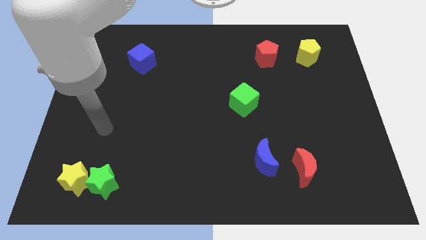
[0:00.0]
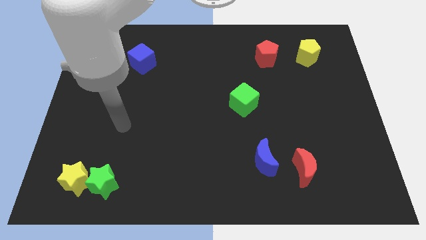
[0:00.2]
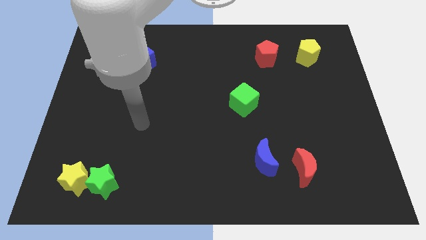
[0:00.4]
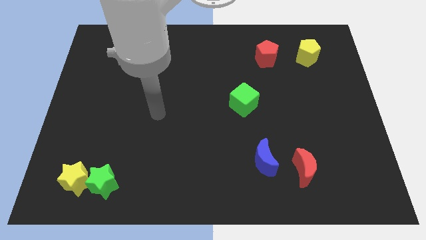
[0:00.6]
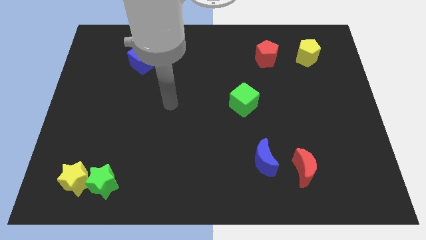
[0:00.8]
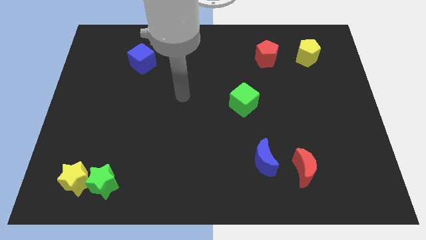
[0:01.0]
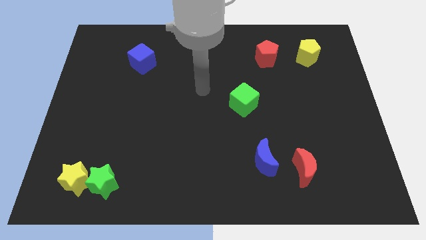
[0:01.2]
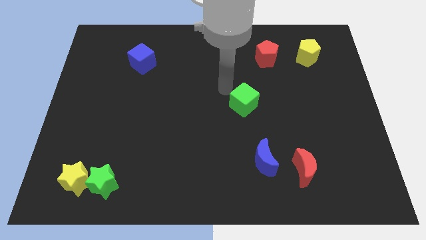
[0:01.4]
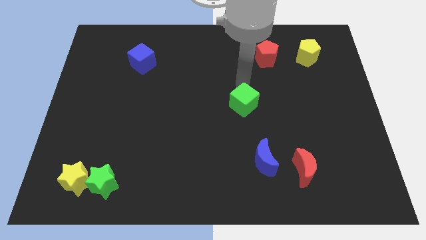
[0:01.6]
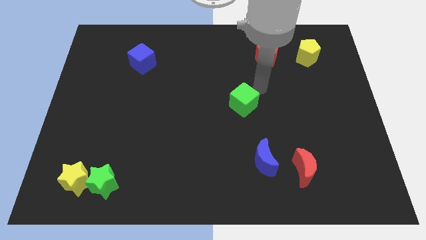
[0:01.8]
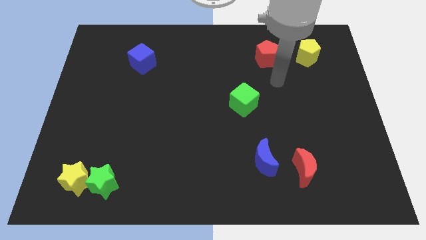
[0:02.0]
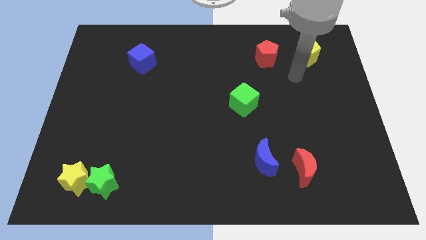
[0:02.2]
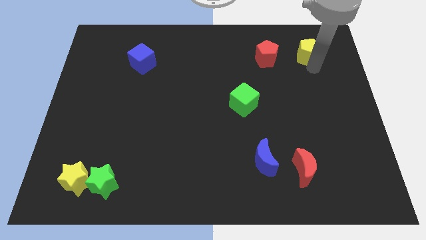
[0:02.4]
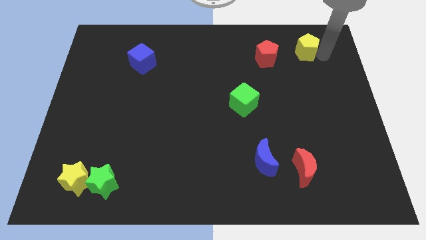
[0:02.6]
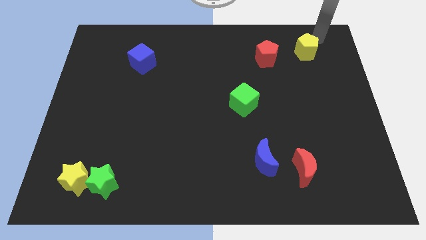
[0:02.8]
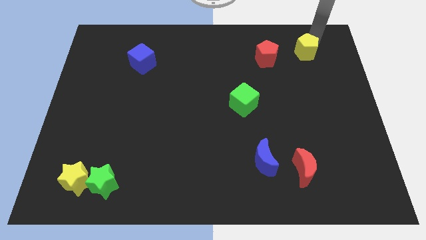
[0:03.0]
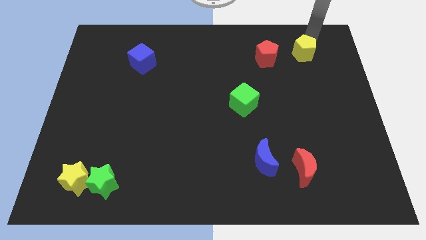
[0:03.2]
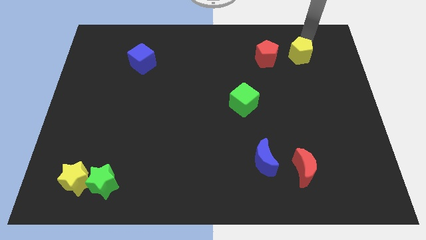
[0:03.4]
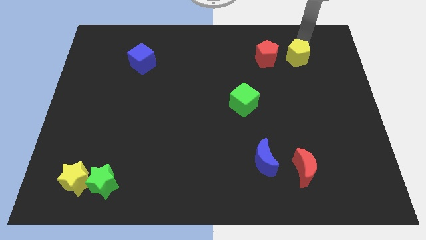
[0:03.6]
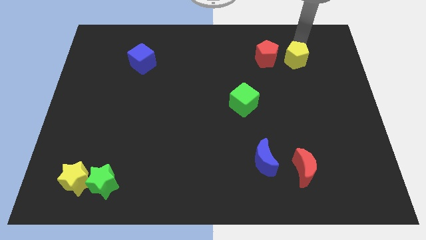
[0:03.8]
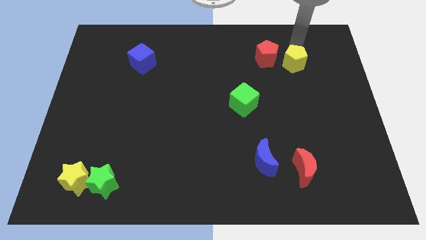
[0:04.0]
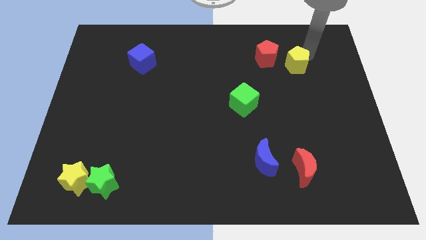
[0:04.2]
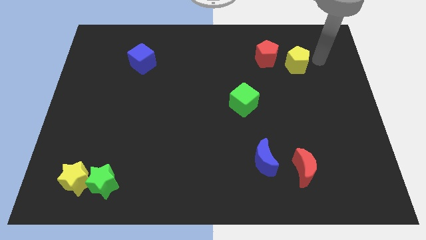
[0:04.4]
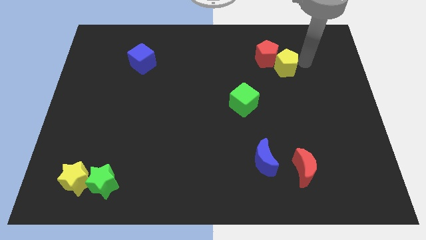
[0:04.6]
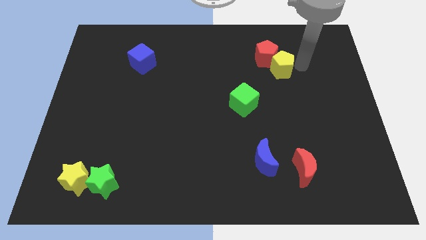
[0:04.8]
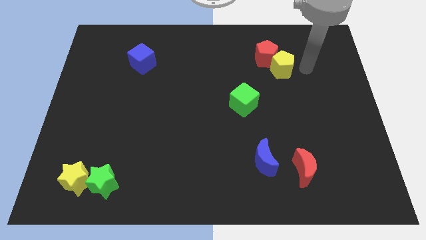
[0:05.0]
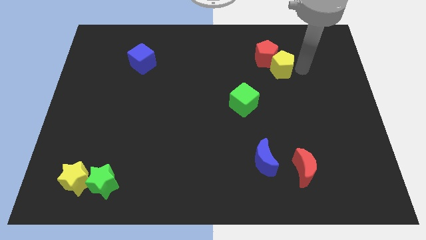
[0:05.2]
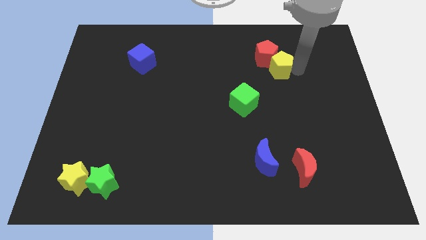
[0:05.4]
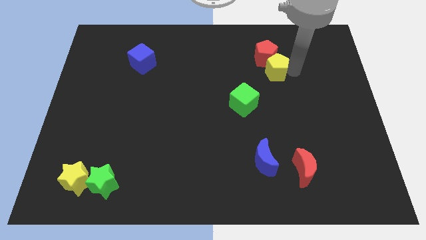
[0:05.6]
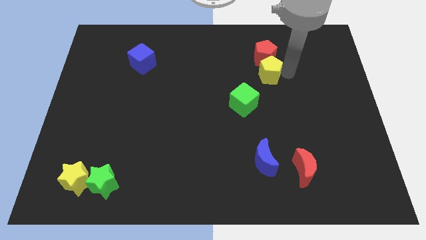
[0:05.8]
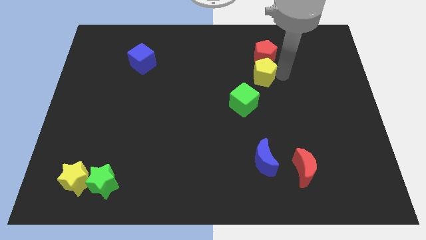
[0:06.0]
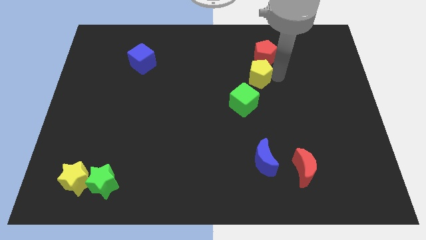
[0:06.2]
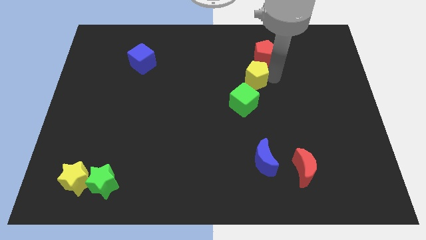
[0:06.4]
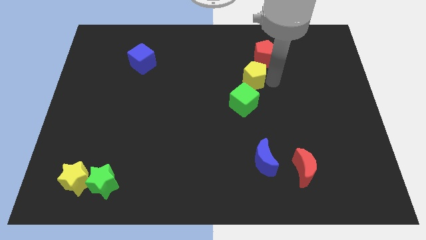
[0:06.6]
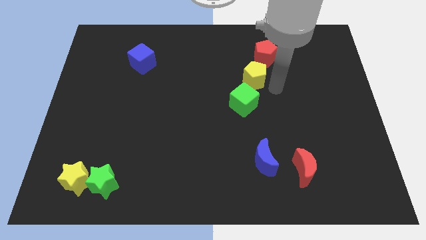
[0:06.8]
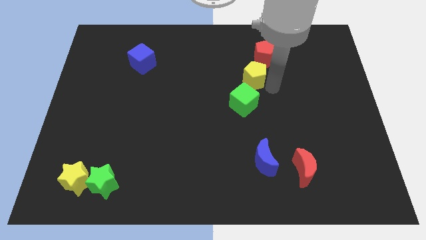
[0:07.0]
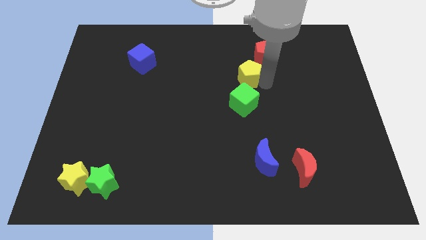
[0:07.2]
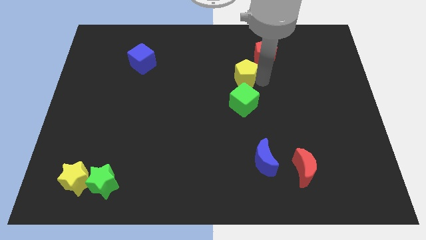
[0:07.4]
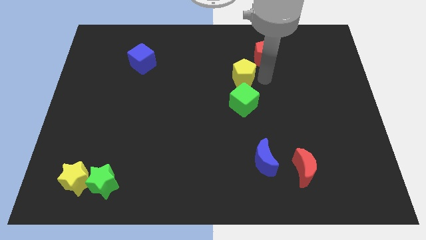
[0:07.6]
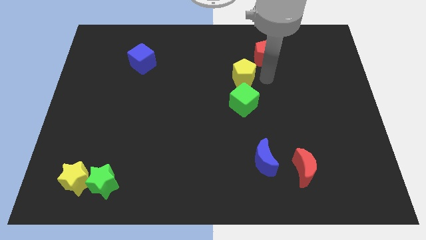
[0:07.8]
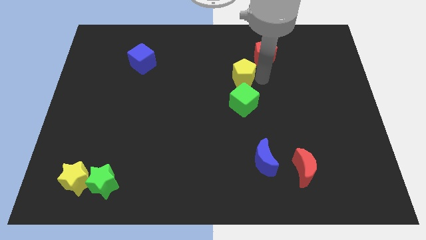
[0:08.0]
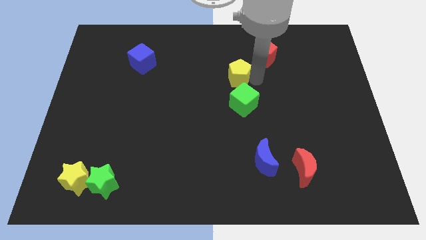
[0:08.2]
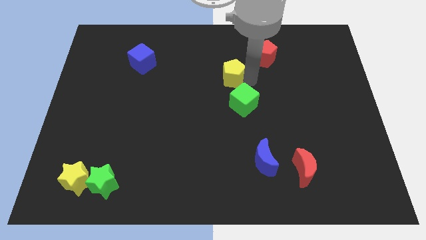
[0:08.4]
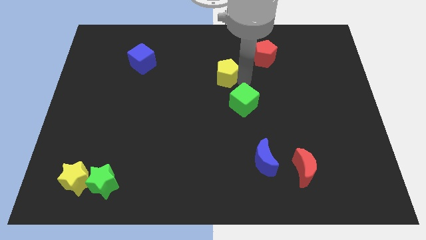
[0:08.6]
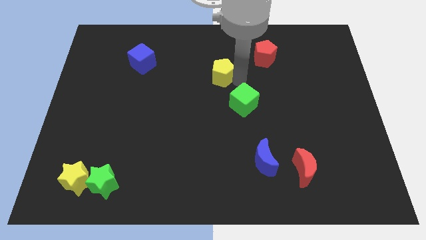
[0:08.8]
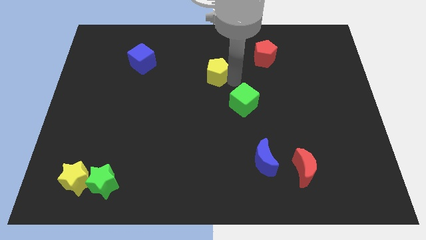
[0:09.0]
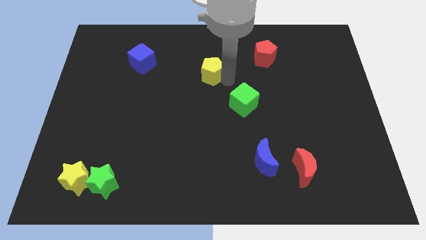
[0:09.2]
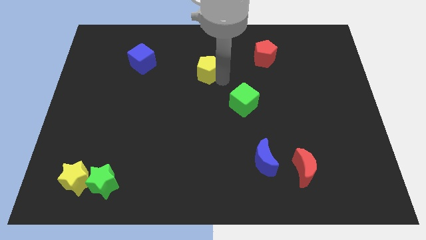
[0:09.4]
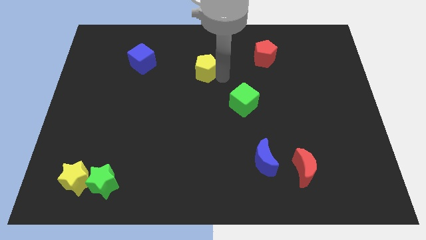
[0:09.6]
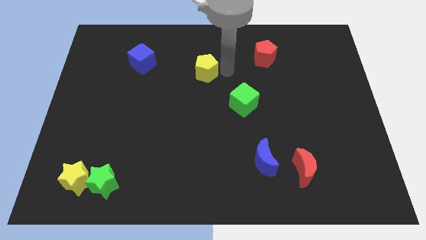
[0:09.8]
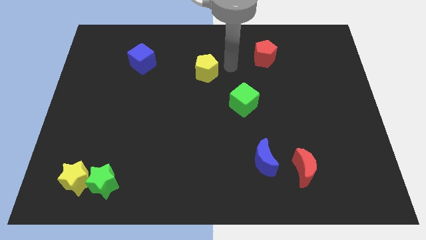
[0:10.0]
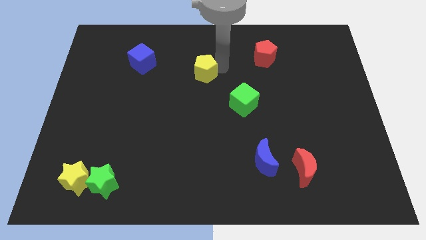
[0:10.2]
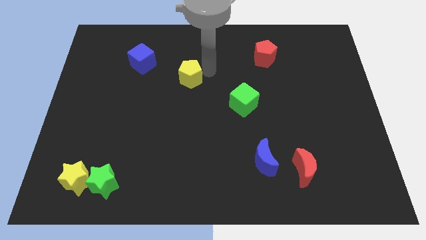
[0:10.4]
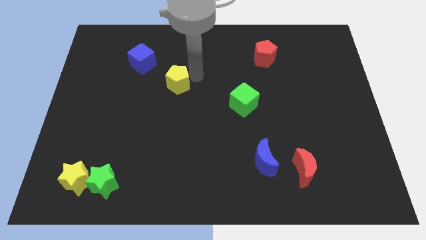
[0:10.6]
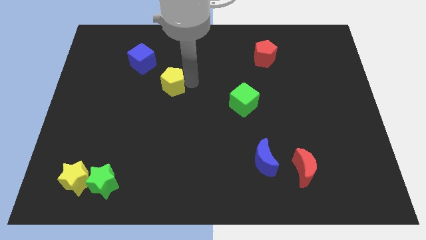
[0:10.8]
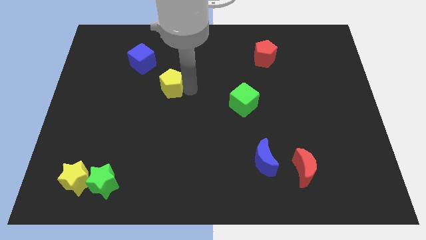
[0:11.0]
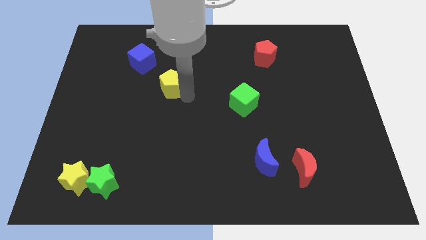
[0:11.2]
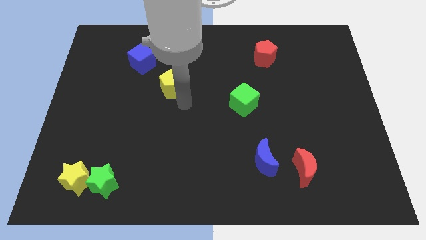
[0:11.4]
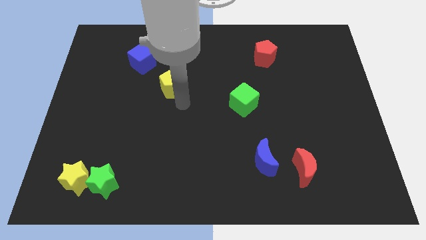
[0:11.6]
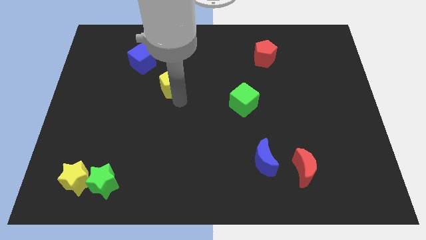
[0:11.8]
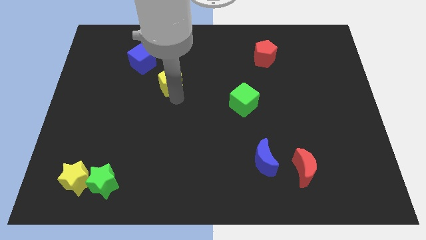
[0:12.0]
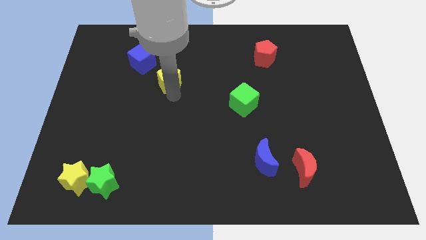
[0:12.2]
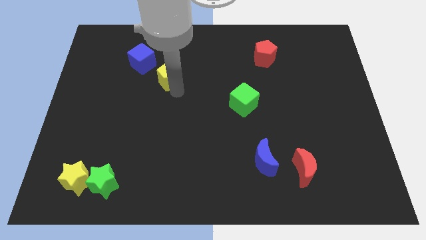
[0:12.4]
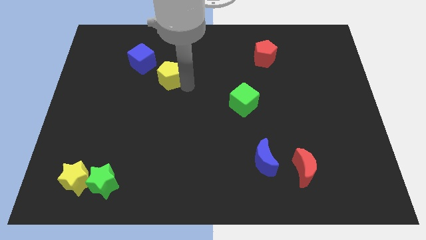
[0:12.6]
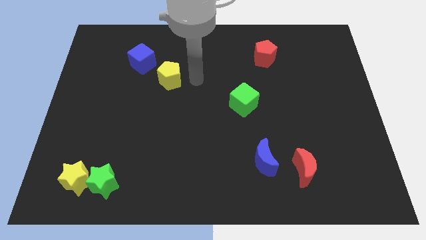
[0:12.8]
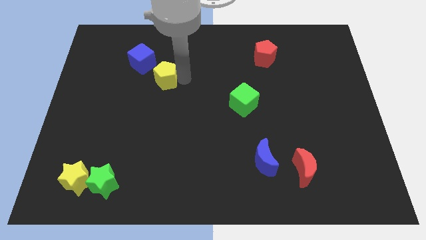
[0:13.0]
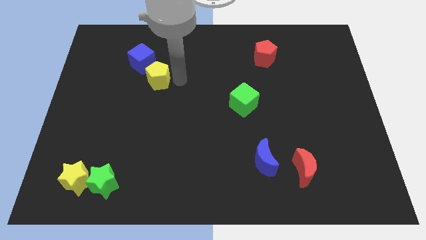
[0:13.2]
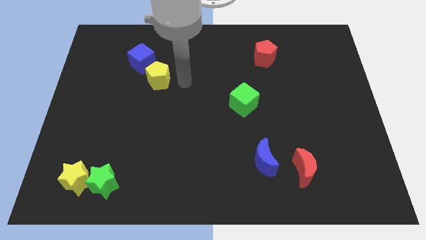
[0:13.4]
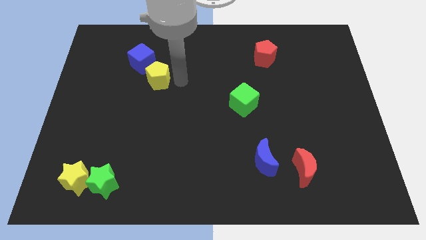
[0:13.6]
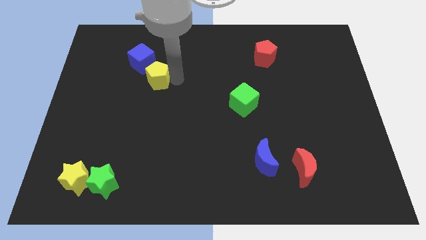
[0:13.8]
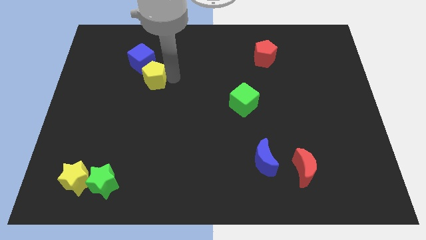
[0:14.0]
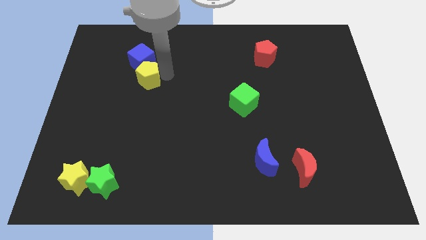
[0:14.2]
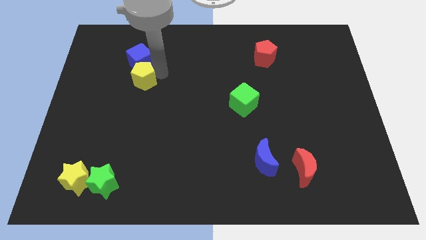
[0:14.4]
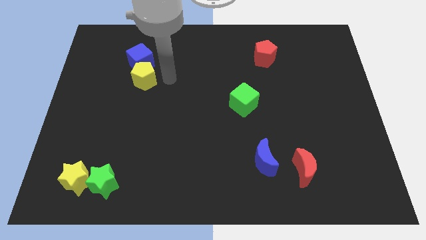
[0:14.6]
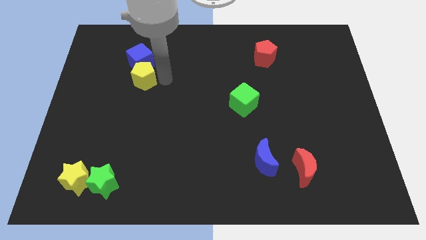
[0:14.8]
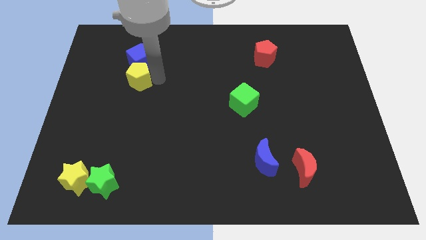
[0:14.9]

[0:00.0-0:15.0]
put the yellow pentagon diagonally down and to the left of the blue cube

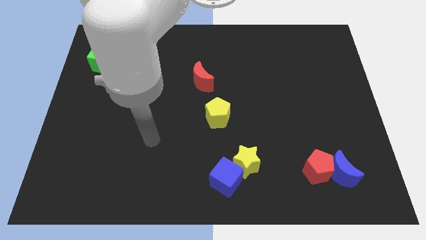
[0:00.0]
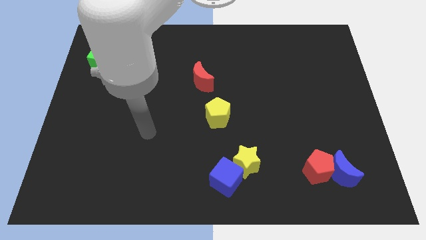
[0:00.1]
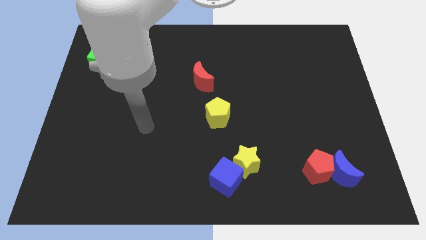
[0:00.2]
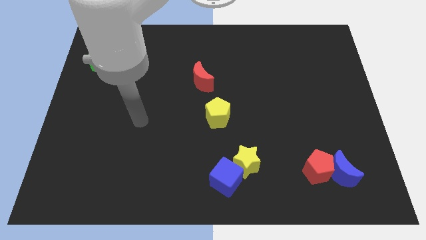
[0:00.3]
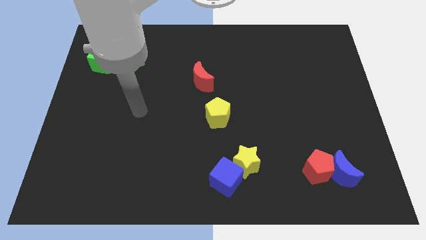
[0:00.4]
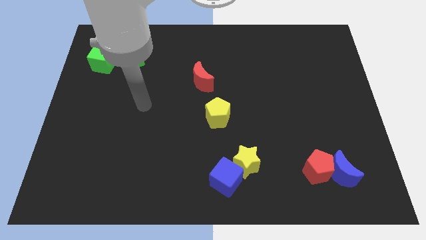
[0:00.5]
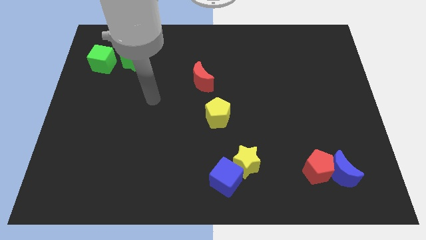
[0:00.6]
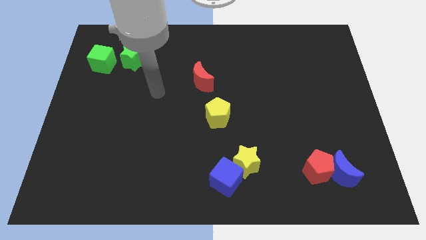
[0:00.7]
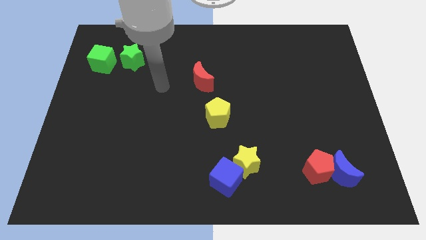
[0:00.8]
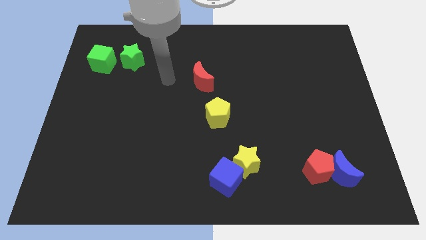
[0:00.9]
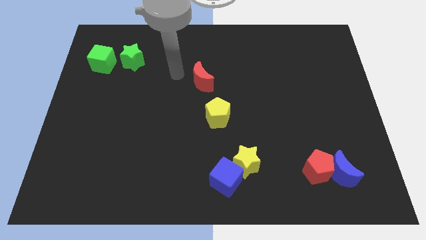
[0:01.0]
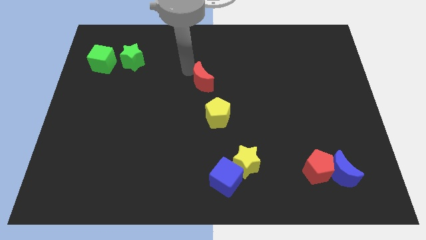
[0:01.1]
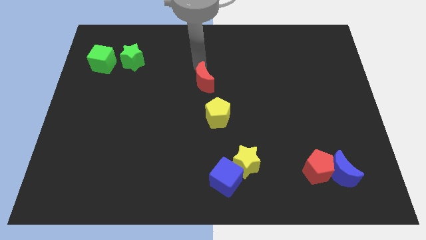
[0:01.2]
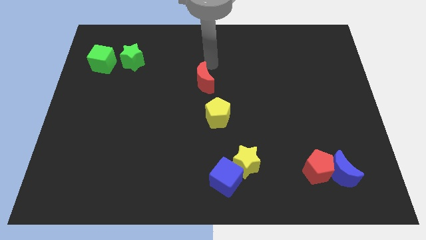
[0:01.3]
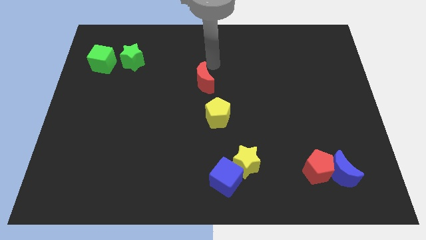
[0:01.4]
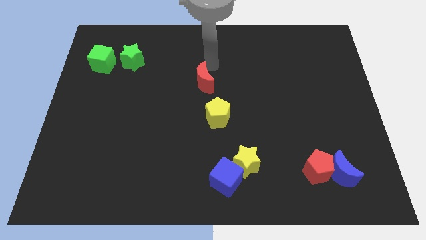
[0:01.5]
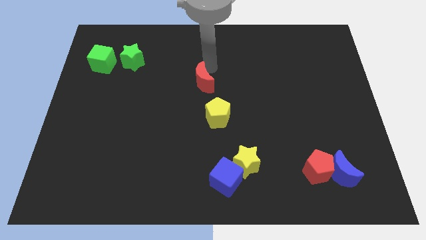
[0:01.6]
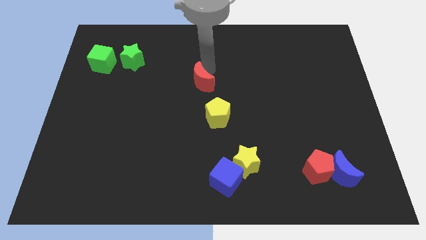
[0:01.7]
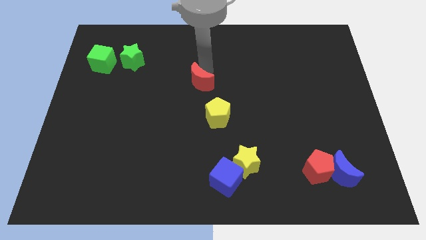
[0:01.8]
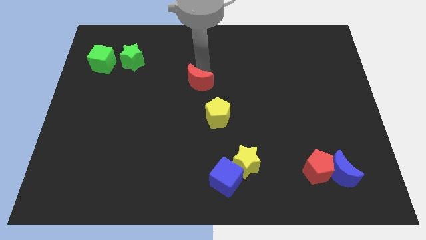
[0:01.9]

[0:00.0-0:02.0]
push the red moon diagonally up and to the left of the yellow pentagon
